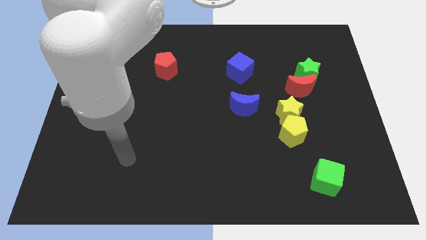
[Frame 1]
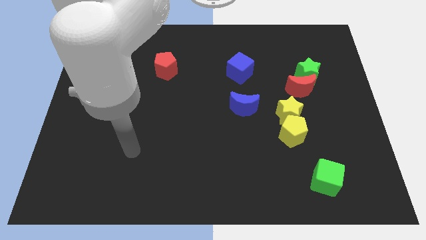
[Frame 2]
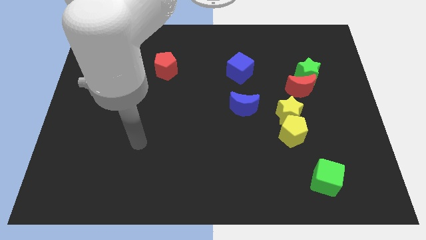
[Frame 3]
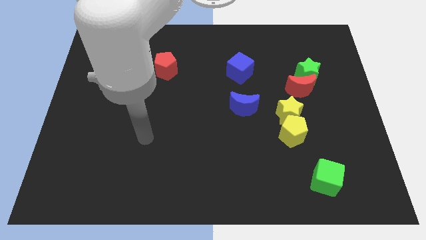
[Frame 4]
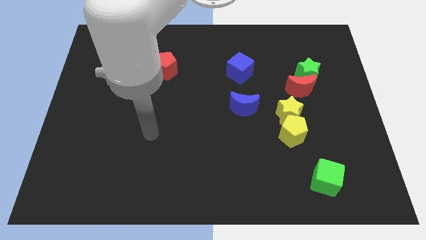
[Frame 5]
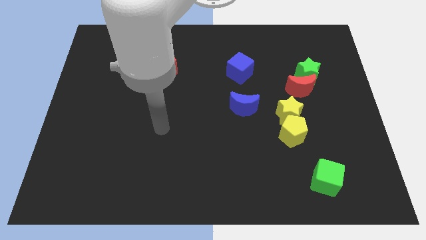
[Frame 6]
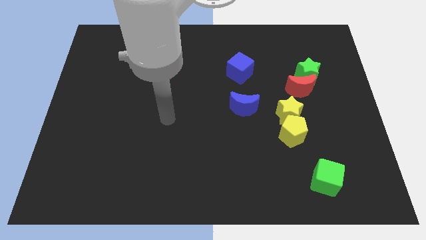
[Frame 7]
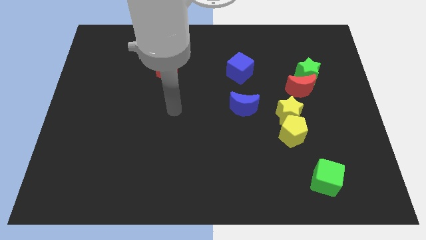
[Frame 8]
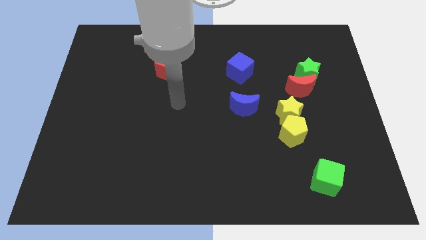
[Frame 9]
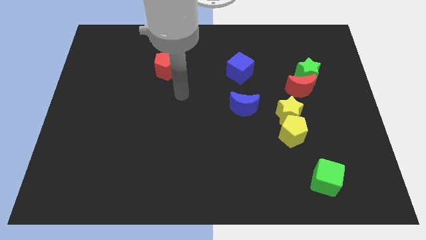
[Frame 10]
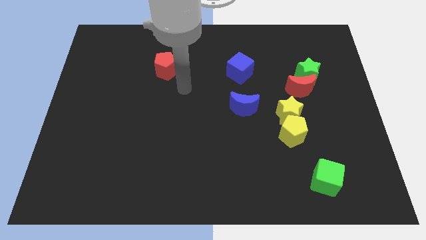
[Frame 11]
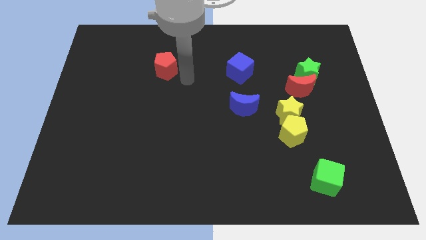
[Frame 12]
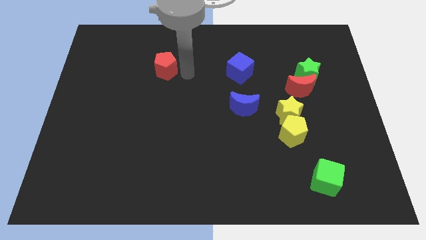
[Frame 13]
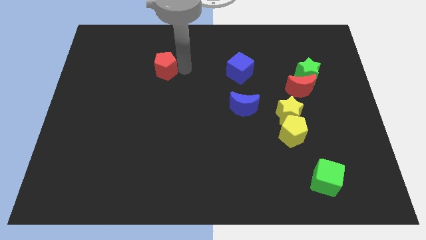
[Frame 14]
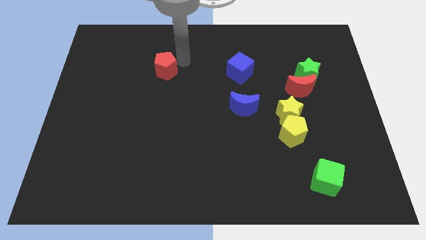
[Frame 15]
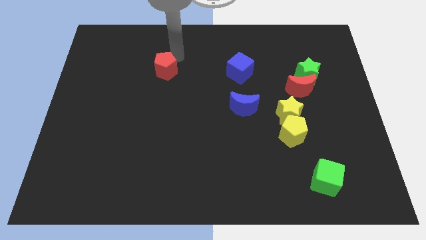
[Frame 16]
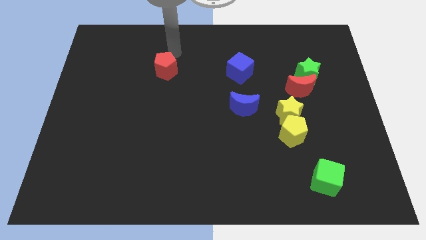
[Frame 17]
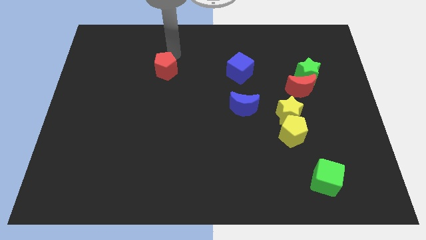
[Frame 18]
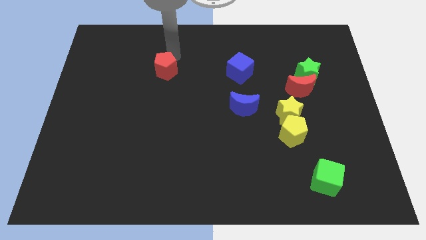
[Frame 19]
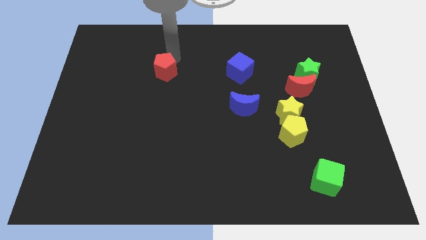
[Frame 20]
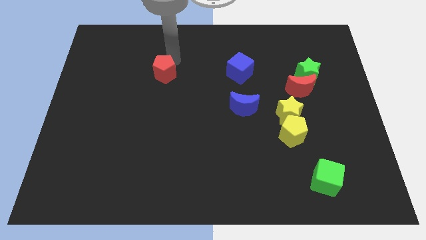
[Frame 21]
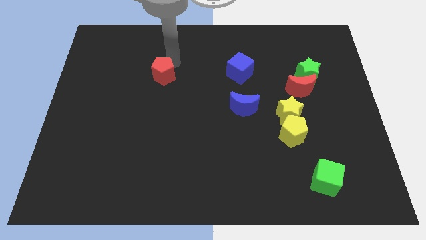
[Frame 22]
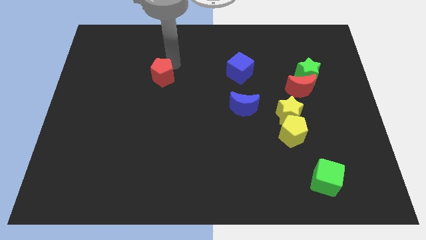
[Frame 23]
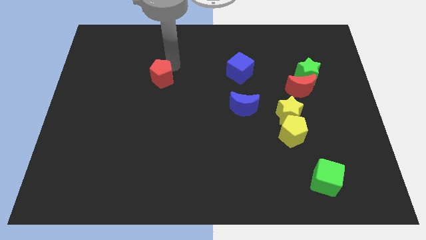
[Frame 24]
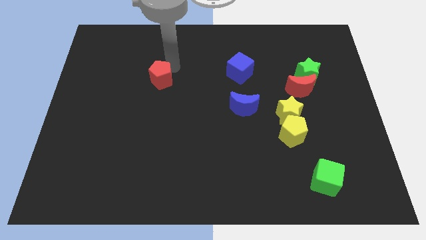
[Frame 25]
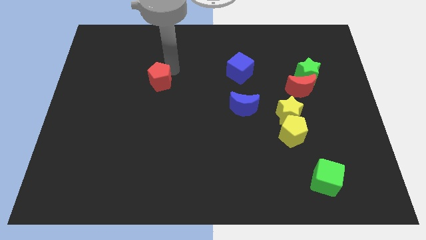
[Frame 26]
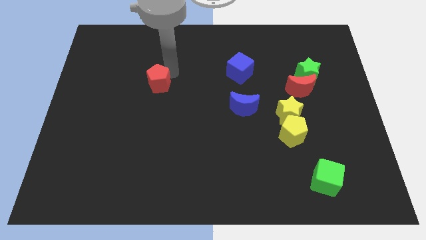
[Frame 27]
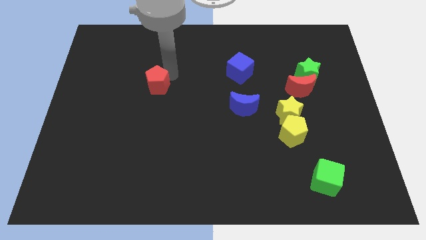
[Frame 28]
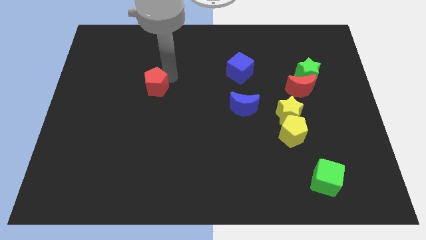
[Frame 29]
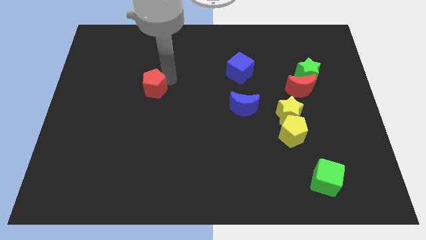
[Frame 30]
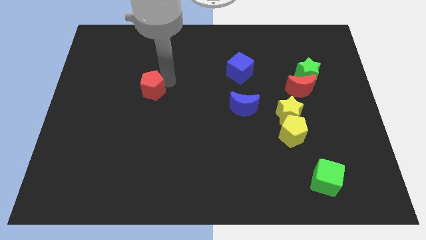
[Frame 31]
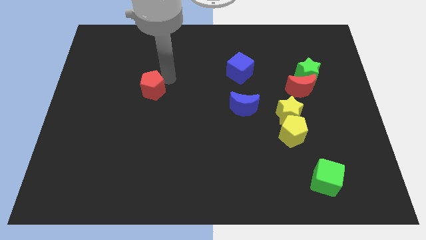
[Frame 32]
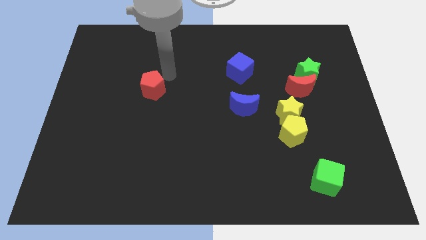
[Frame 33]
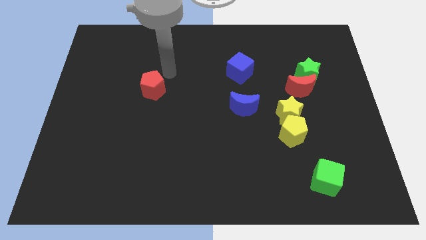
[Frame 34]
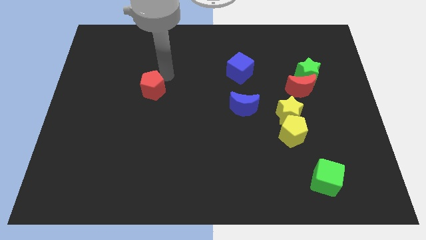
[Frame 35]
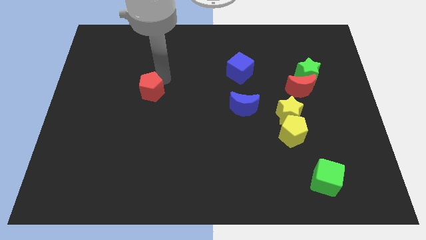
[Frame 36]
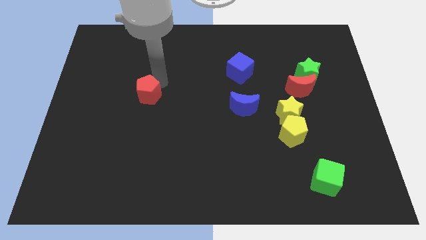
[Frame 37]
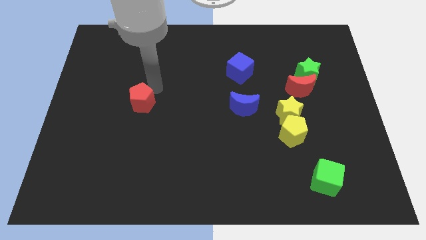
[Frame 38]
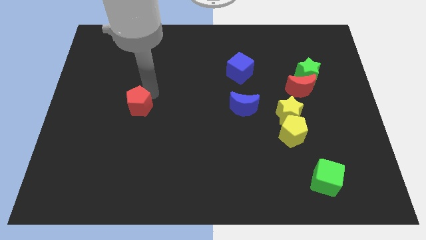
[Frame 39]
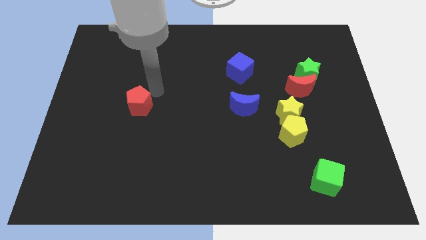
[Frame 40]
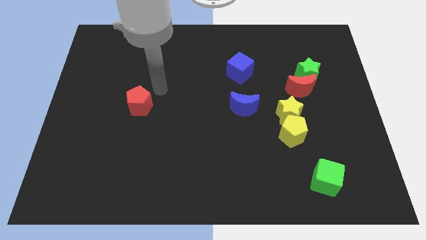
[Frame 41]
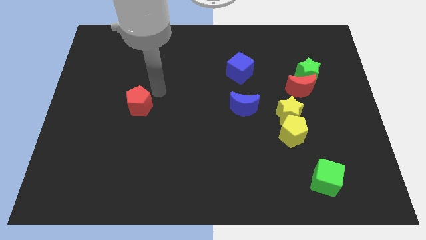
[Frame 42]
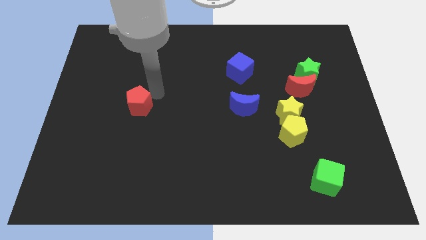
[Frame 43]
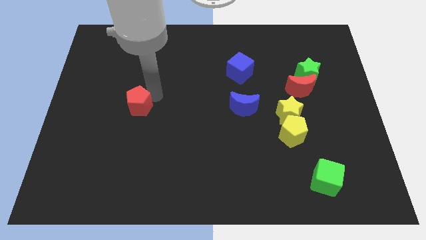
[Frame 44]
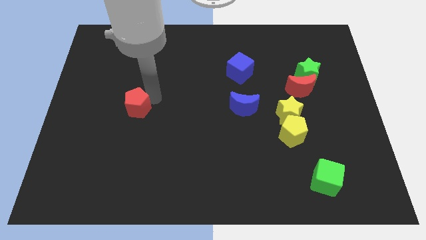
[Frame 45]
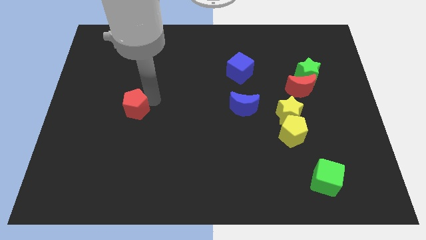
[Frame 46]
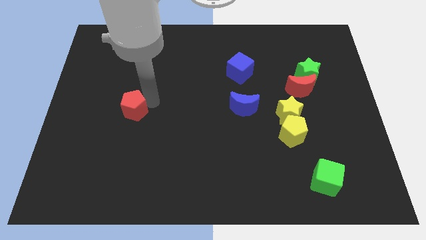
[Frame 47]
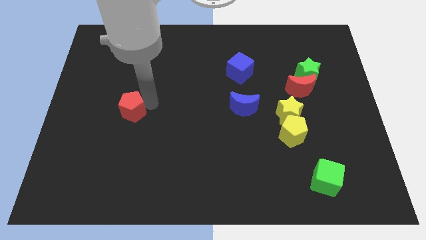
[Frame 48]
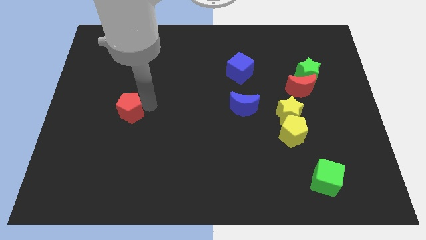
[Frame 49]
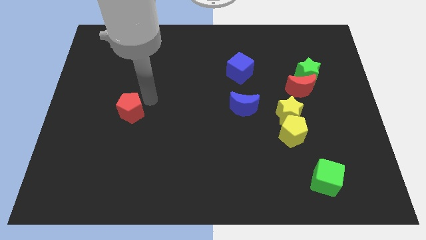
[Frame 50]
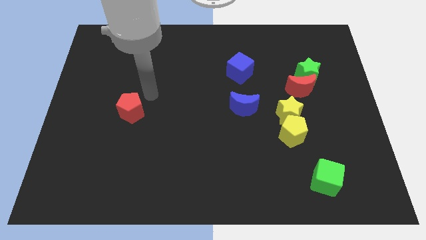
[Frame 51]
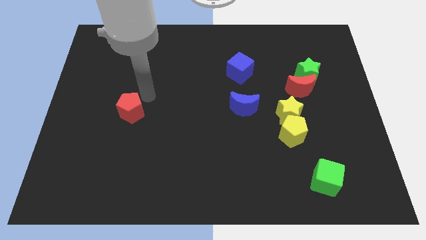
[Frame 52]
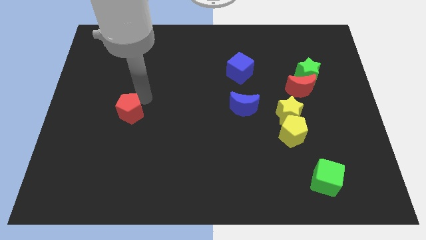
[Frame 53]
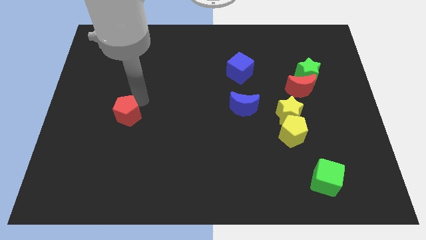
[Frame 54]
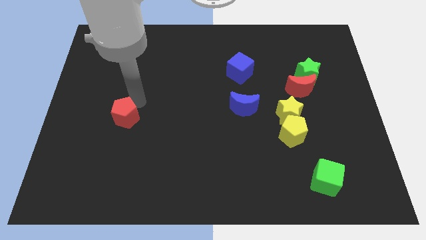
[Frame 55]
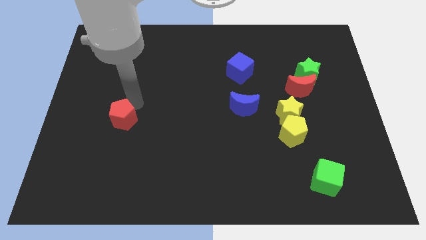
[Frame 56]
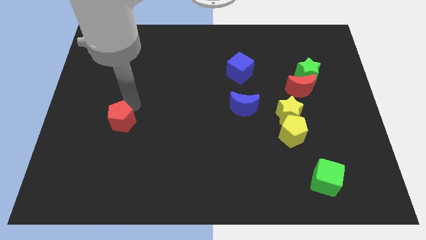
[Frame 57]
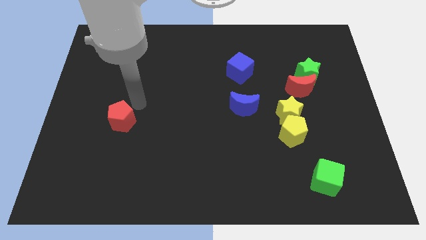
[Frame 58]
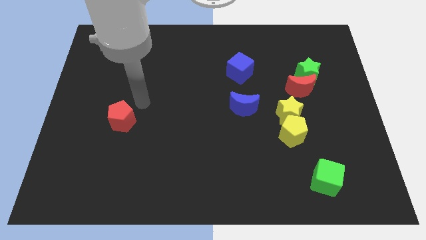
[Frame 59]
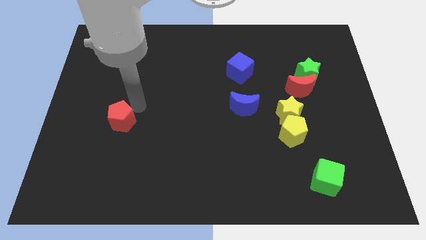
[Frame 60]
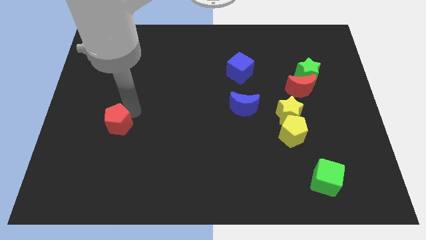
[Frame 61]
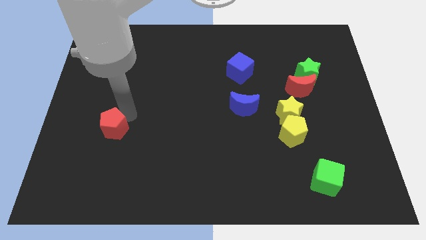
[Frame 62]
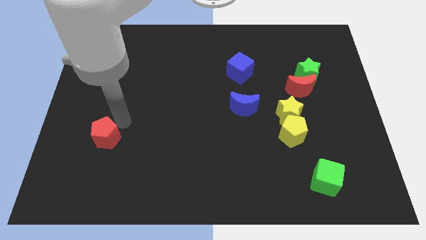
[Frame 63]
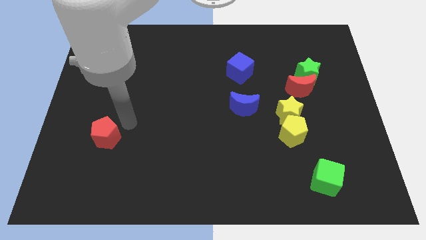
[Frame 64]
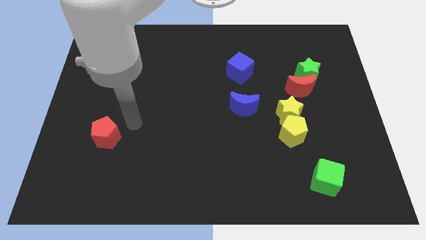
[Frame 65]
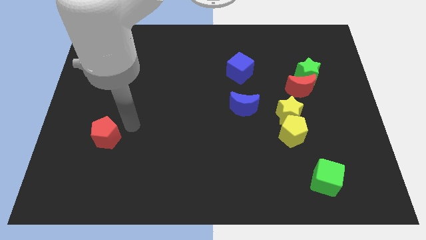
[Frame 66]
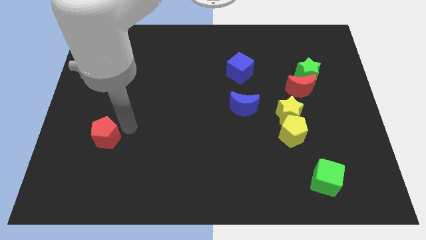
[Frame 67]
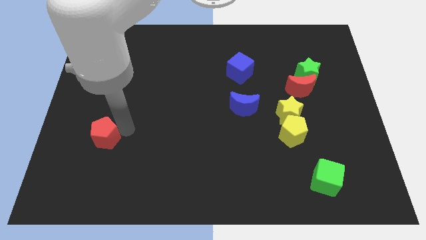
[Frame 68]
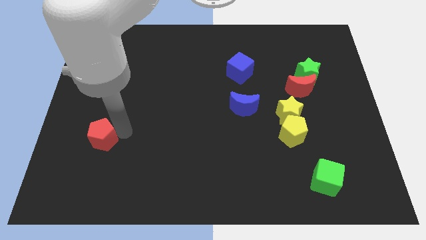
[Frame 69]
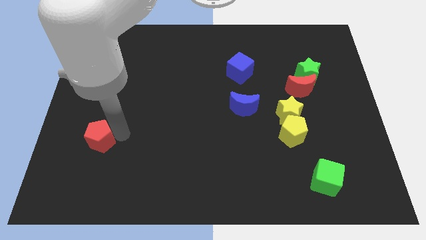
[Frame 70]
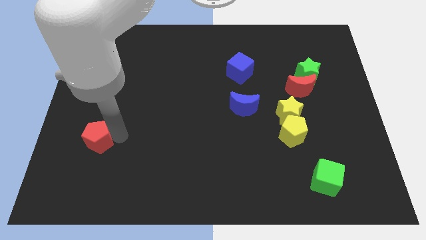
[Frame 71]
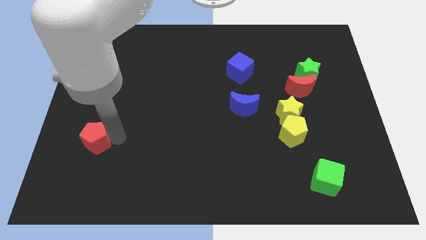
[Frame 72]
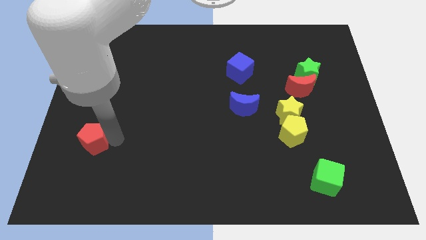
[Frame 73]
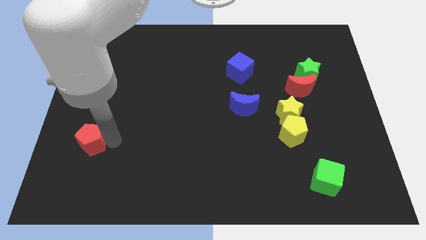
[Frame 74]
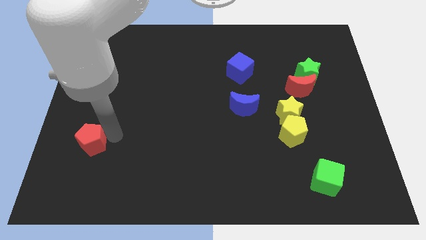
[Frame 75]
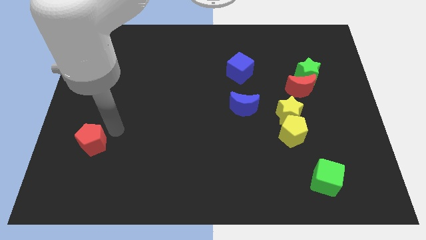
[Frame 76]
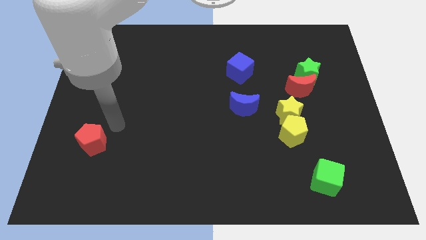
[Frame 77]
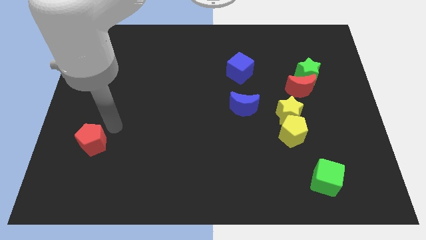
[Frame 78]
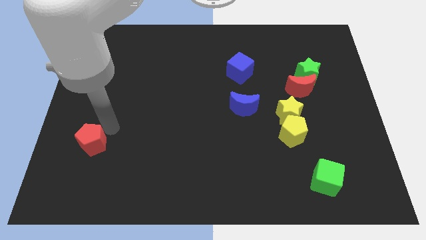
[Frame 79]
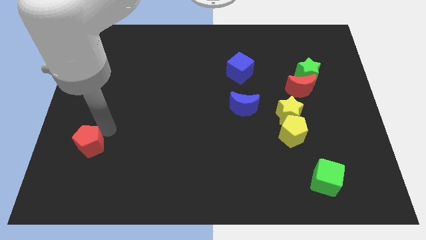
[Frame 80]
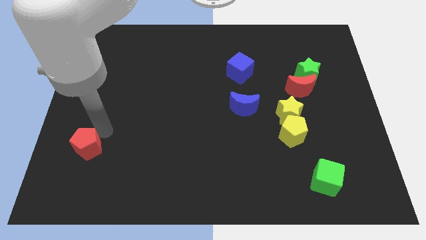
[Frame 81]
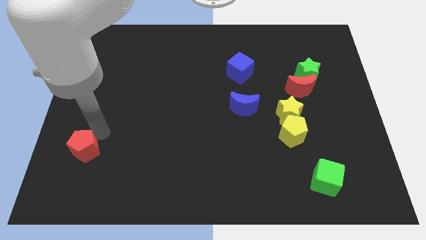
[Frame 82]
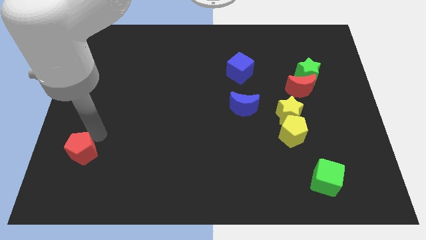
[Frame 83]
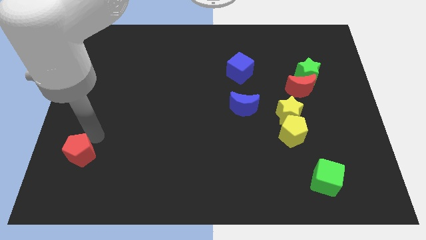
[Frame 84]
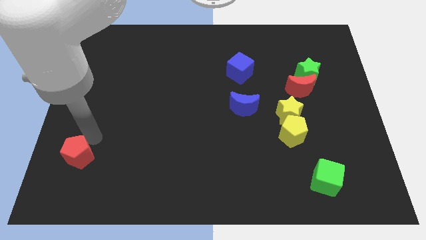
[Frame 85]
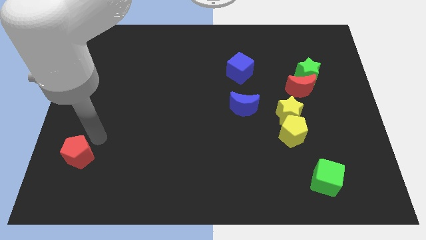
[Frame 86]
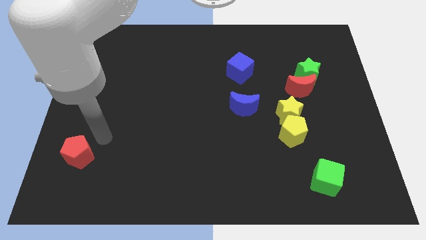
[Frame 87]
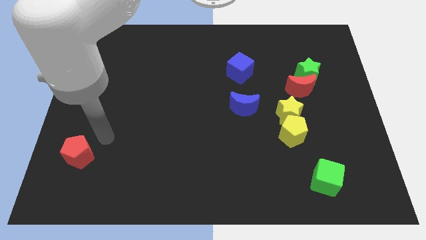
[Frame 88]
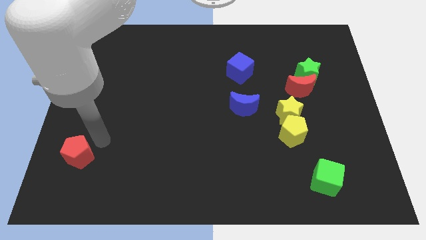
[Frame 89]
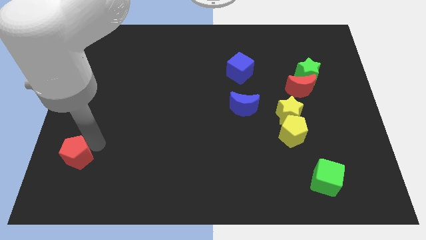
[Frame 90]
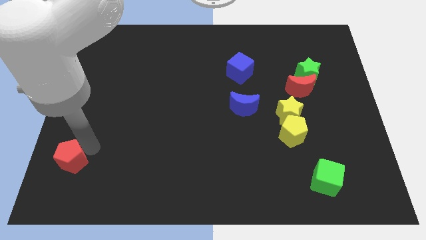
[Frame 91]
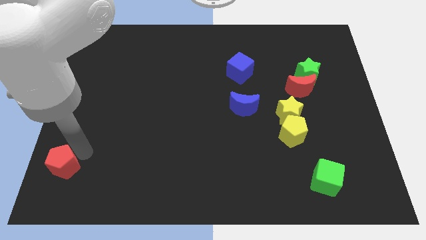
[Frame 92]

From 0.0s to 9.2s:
put the red pentagon to the bottom left corner
